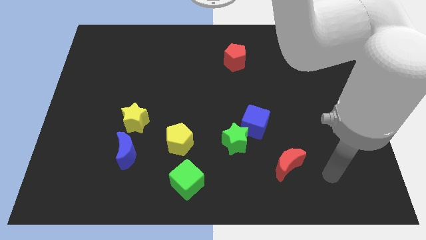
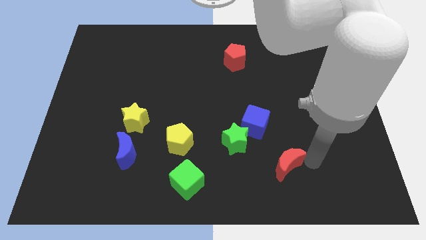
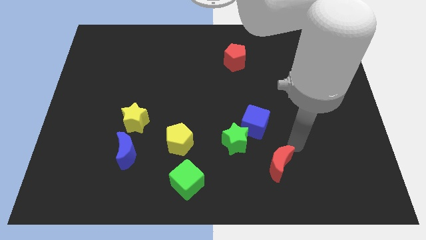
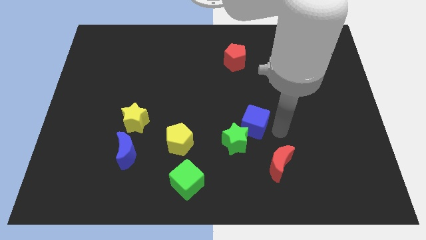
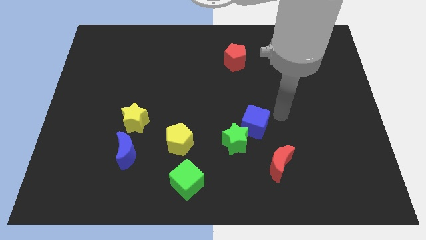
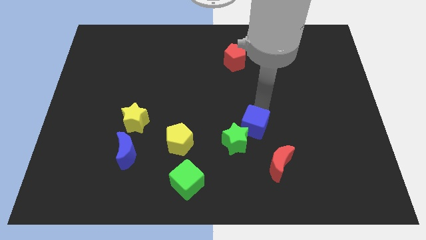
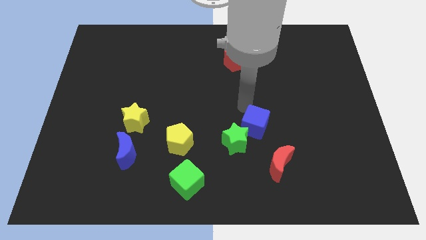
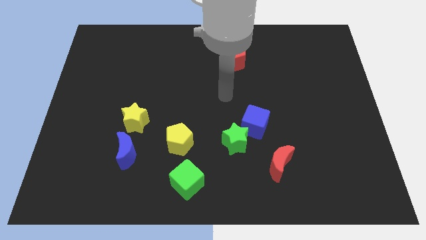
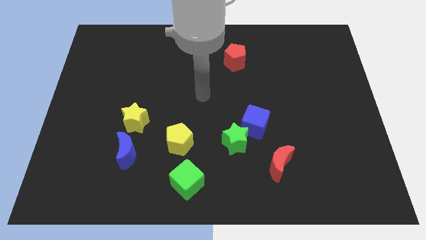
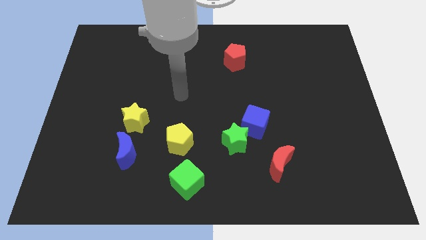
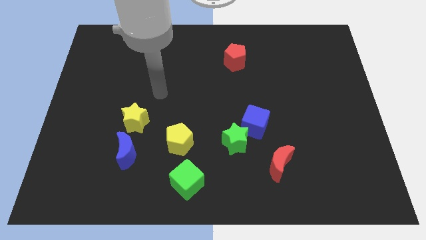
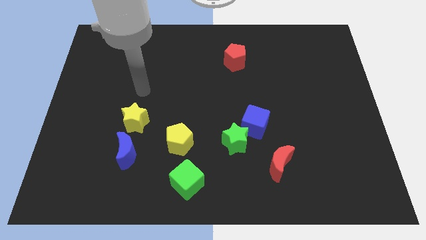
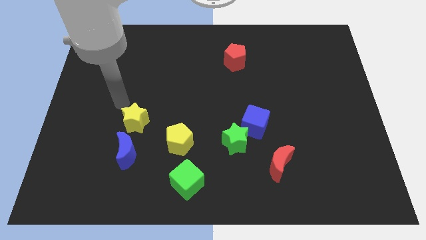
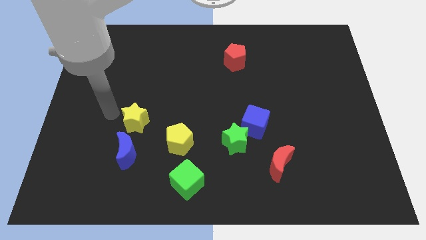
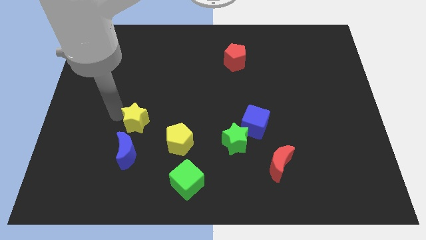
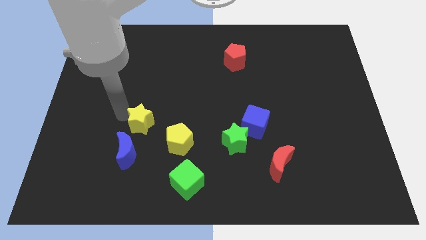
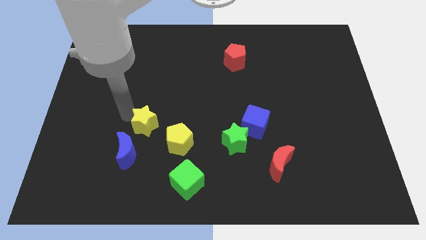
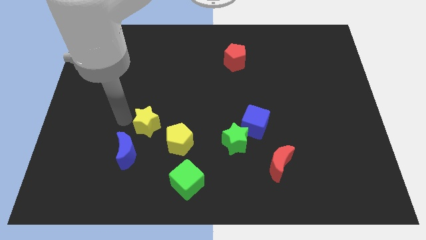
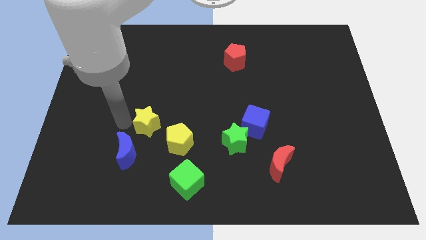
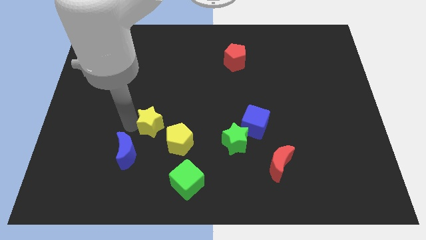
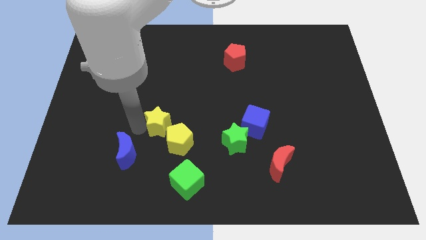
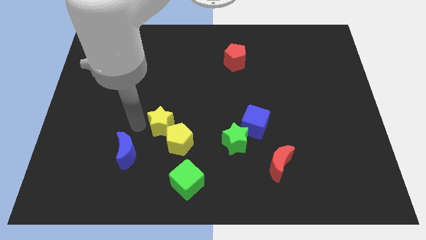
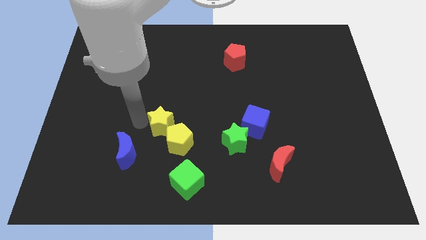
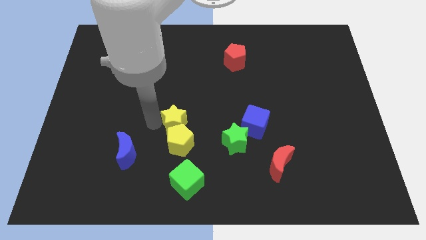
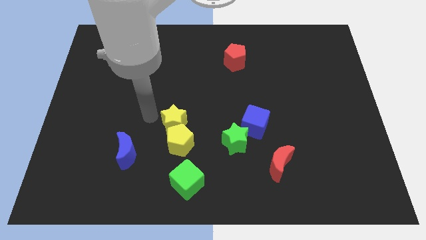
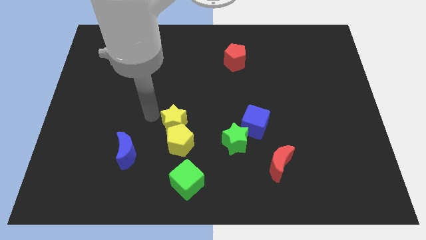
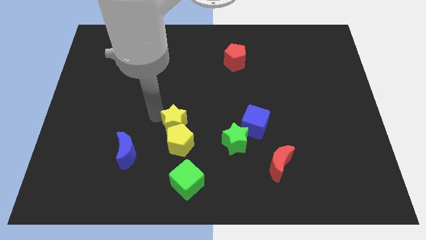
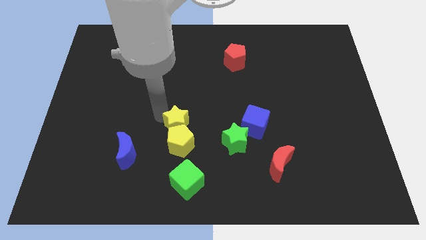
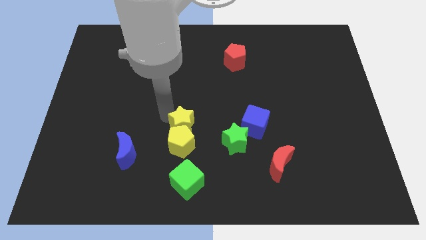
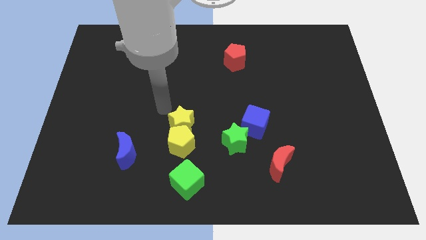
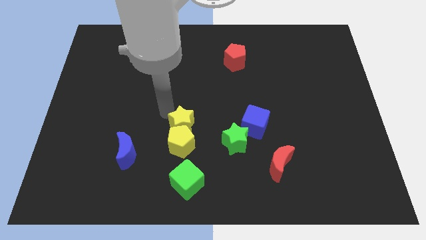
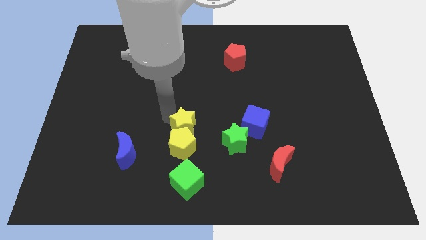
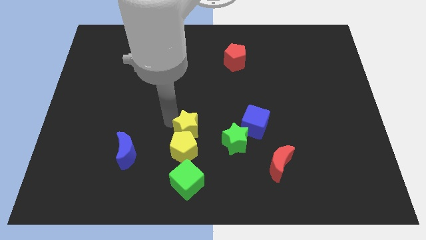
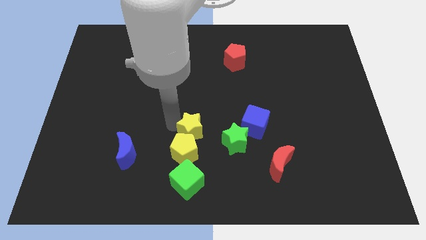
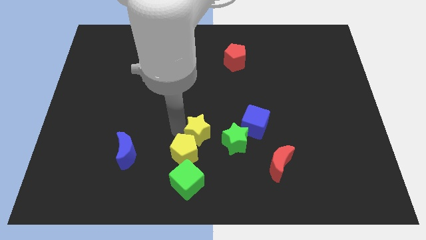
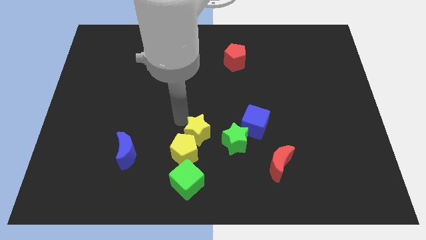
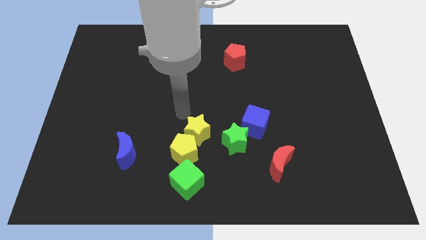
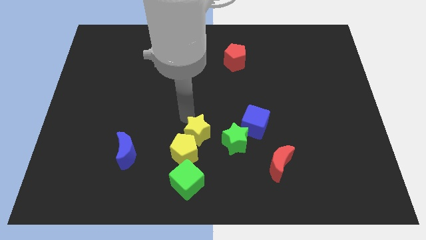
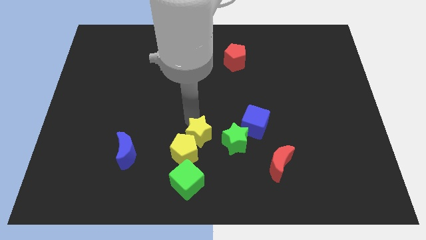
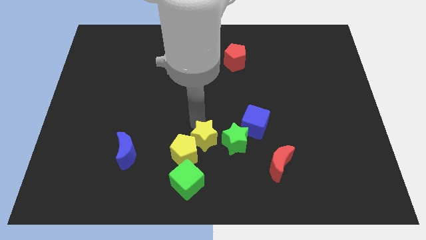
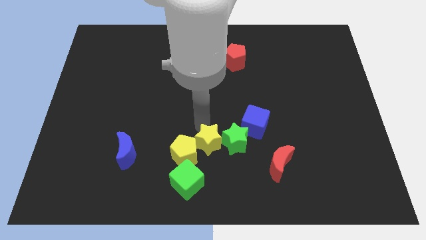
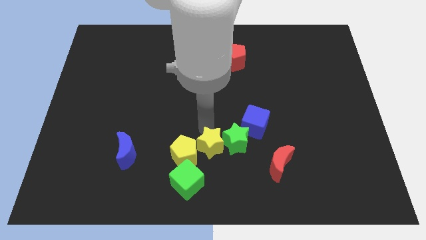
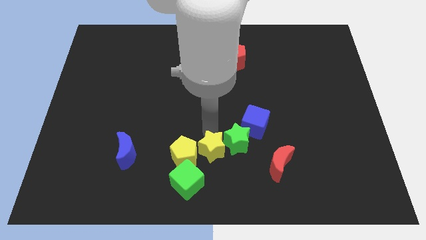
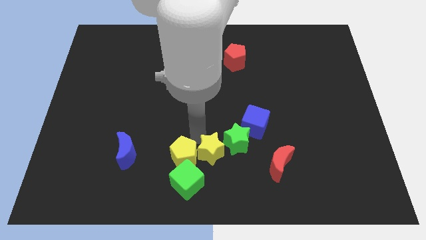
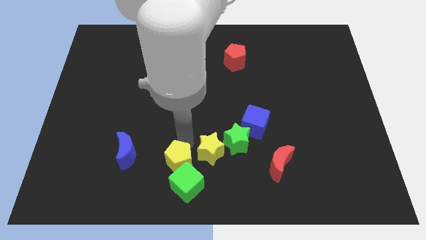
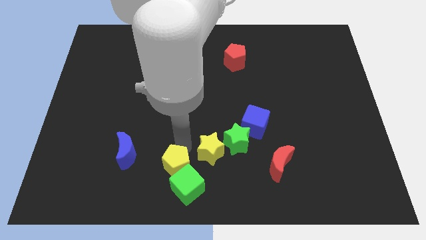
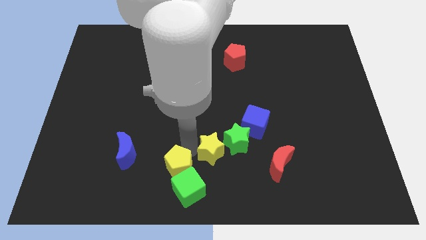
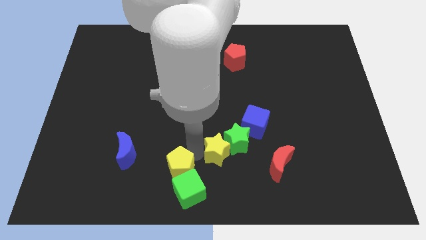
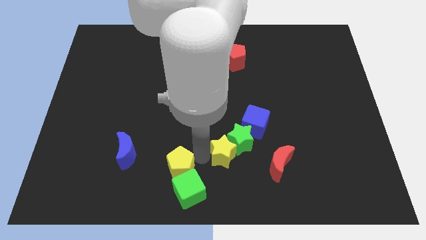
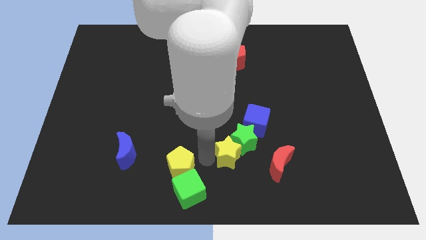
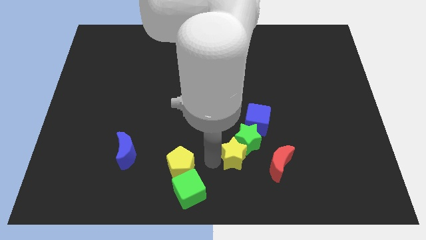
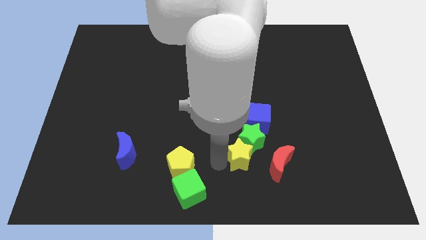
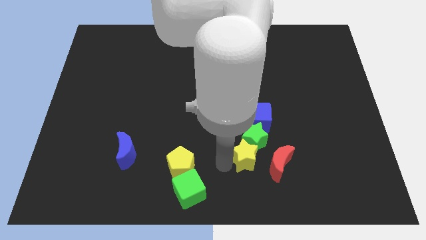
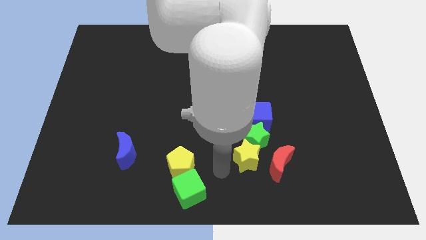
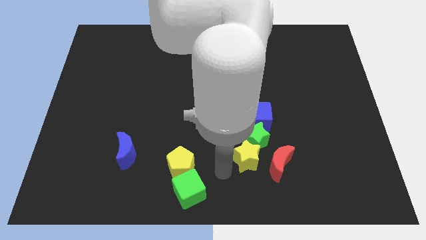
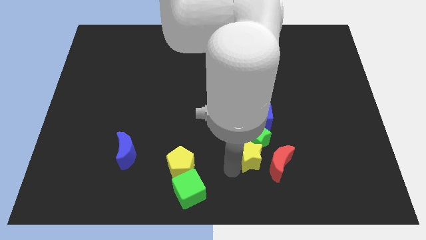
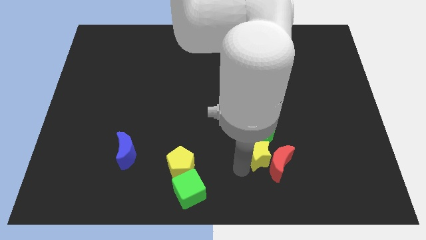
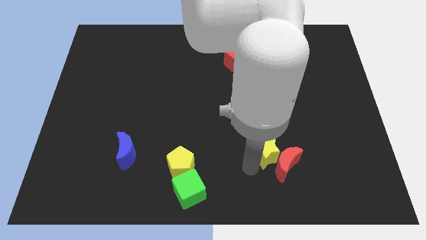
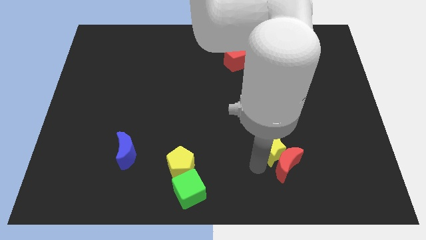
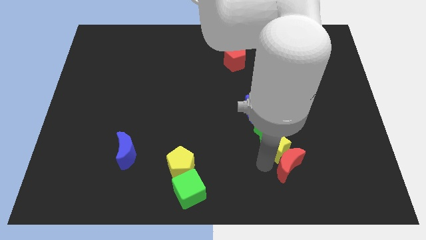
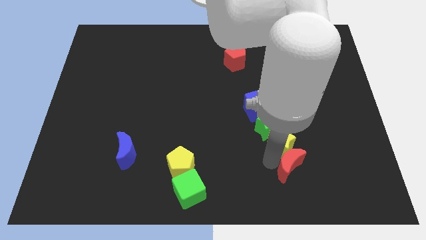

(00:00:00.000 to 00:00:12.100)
move the yellow star diagonally down and to the right of the blue cube

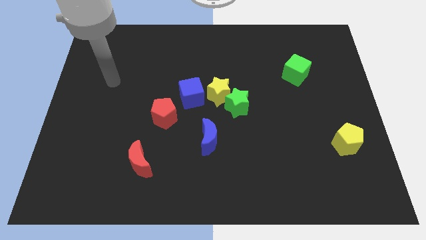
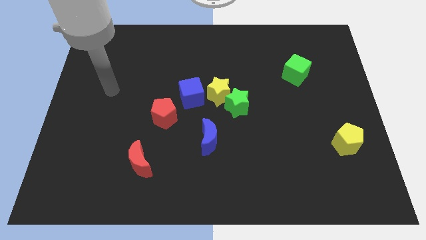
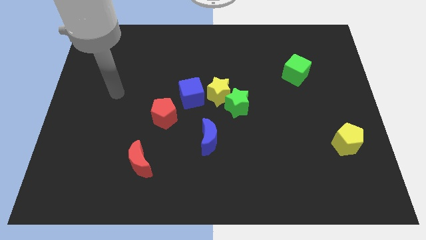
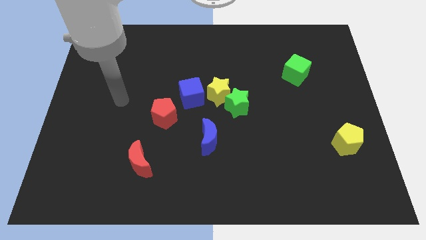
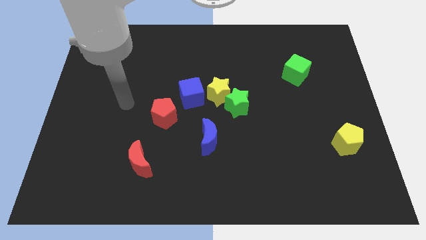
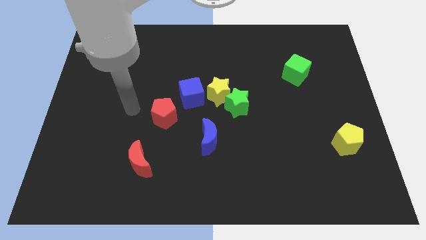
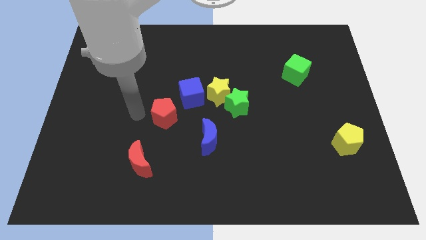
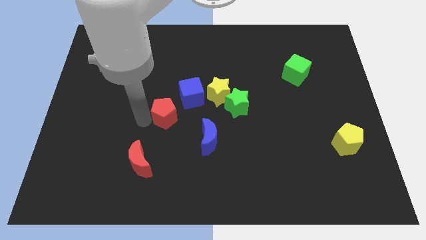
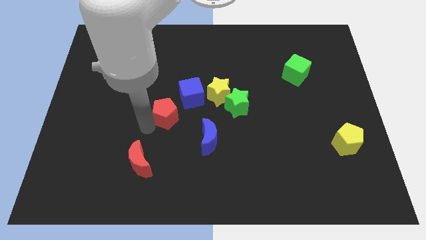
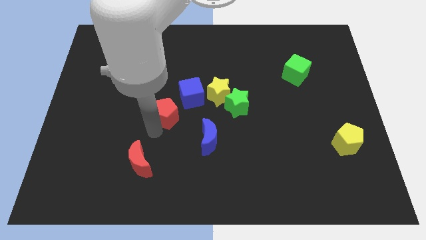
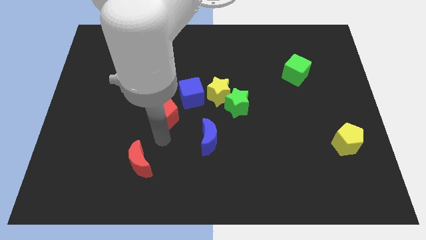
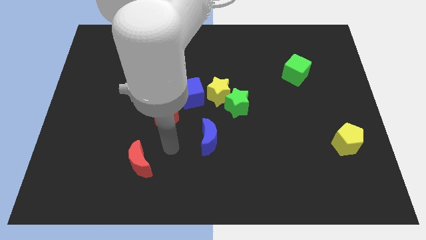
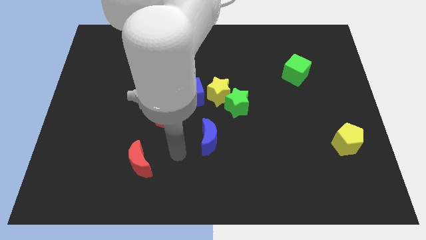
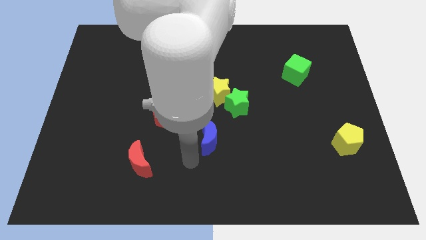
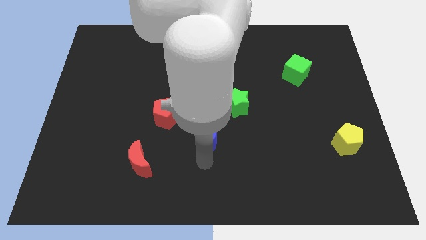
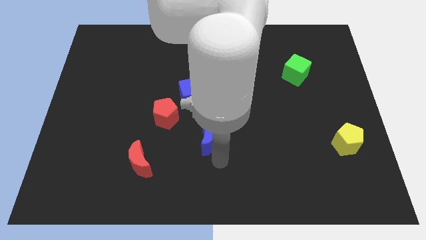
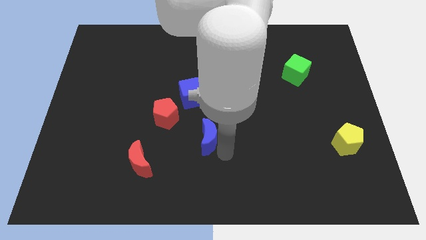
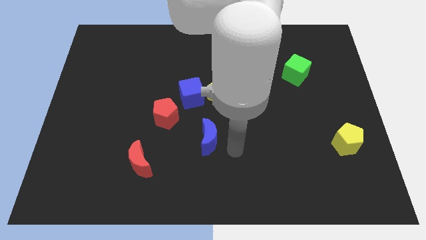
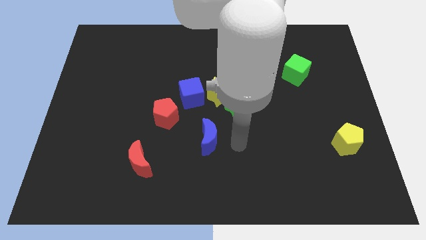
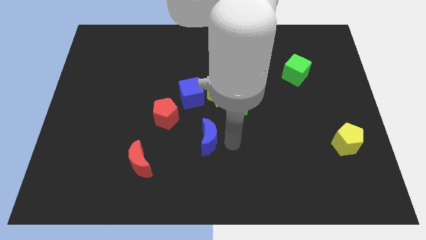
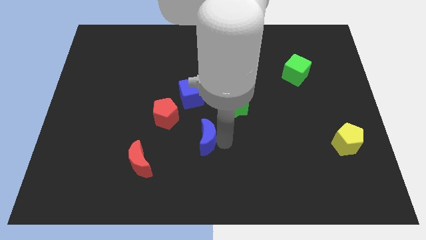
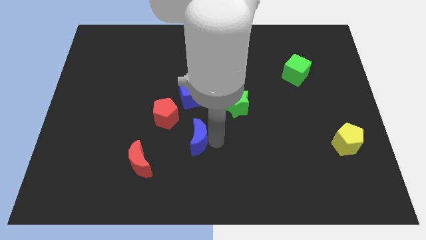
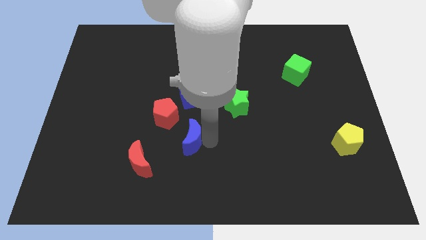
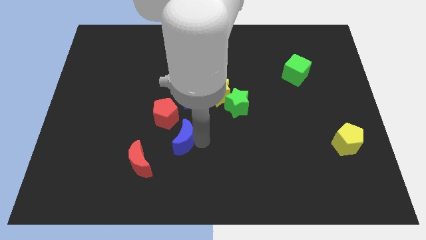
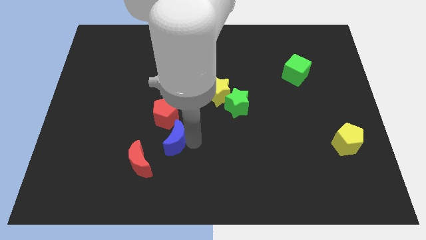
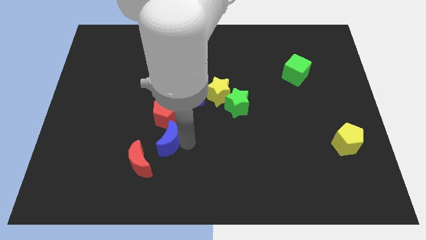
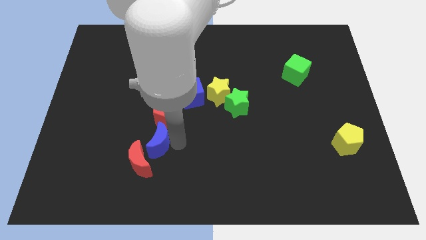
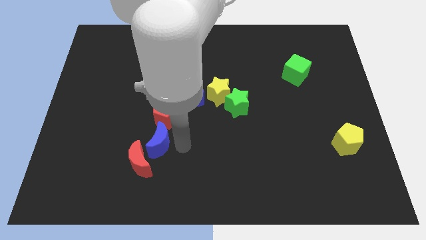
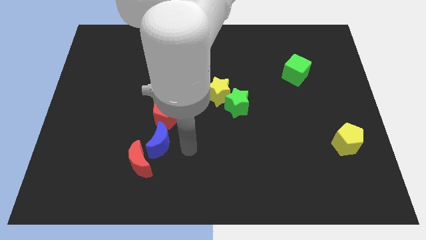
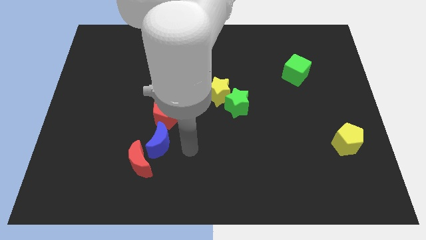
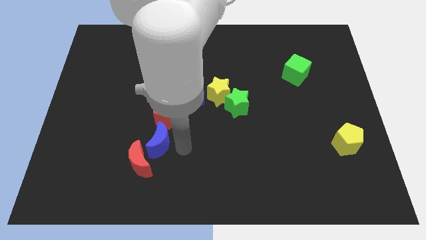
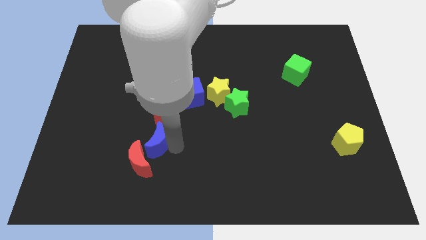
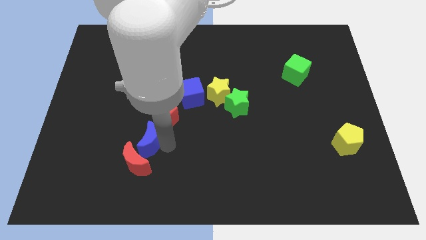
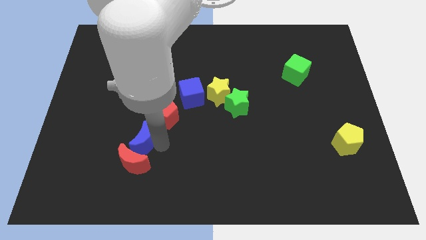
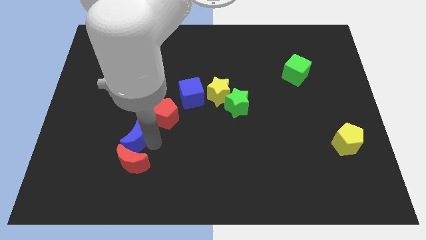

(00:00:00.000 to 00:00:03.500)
push the blue moon diagonally up and to the left of the red moon
